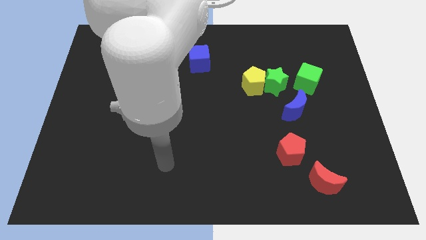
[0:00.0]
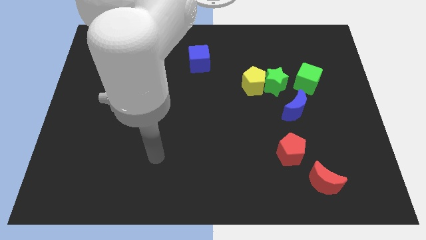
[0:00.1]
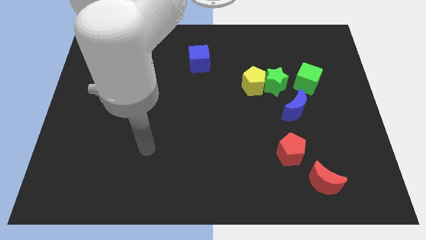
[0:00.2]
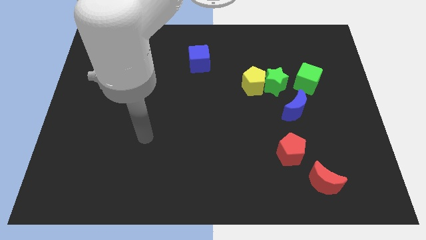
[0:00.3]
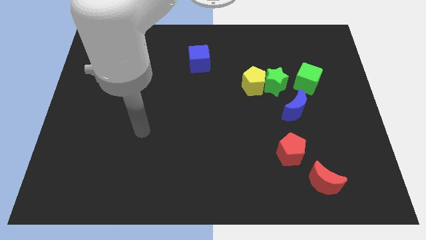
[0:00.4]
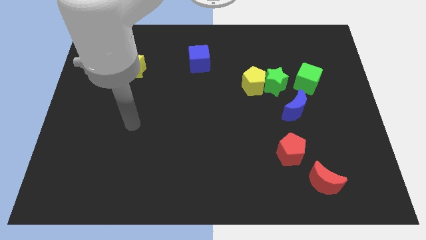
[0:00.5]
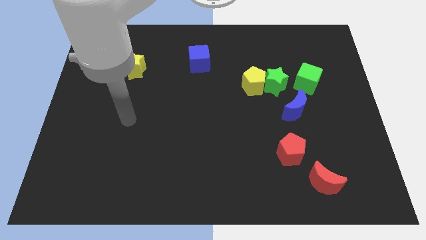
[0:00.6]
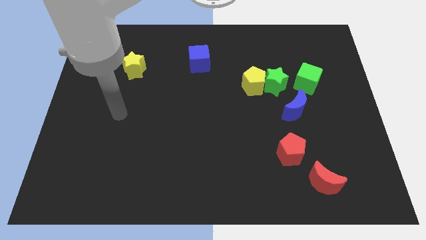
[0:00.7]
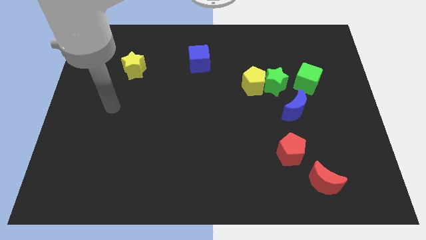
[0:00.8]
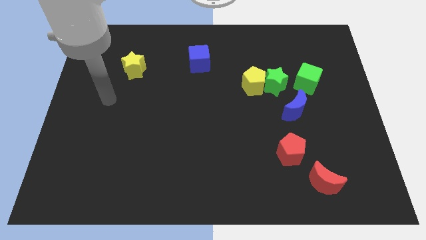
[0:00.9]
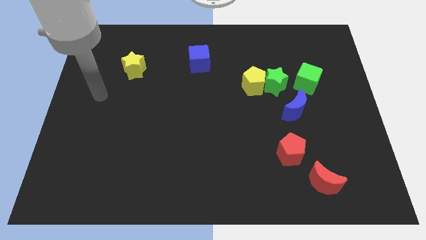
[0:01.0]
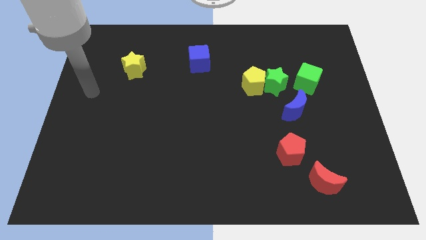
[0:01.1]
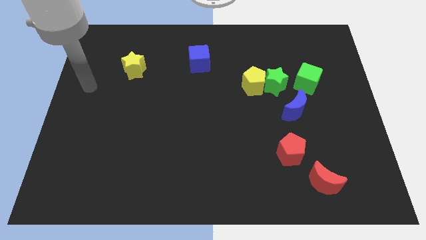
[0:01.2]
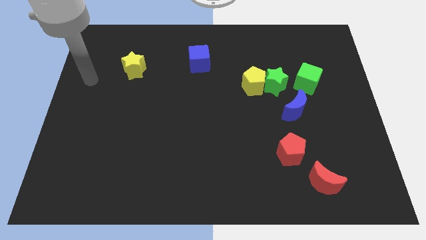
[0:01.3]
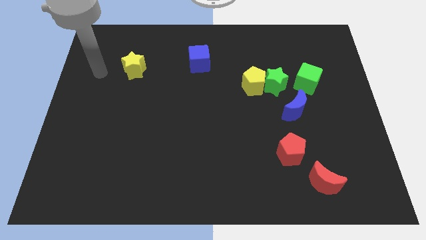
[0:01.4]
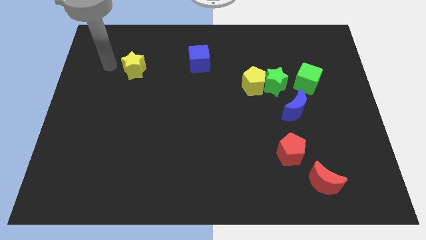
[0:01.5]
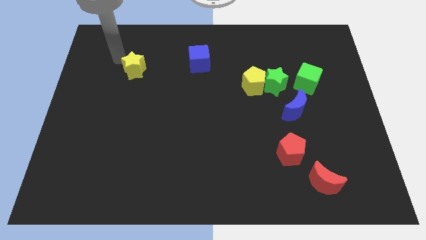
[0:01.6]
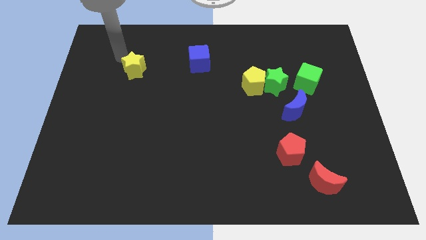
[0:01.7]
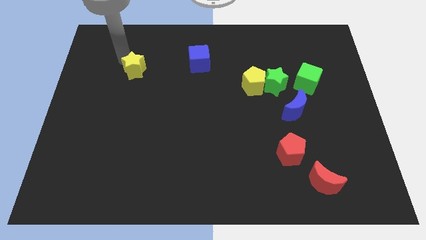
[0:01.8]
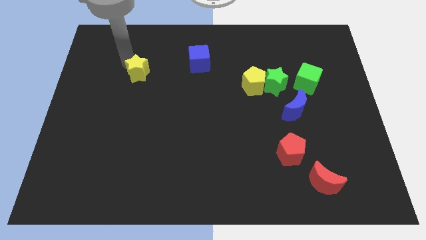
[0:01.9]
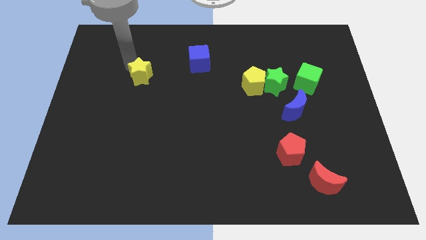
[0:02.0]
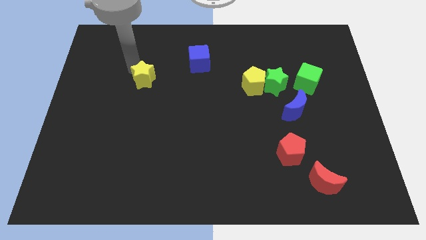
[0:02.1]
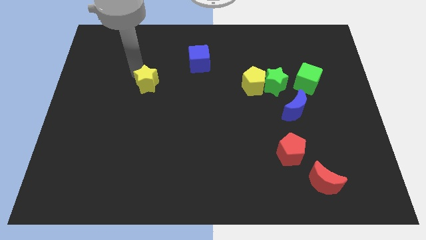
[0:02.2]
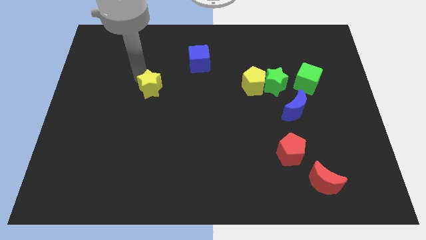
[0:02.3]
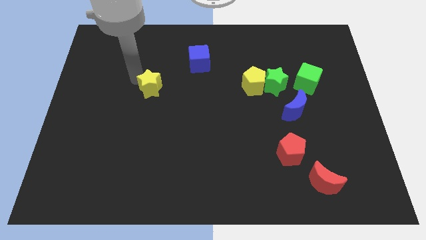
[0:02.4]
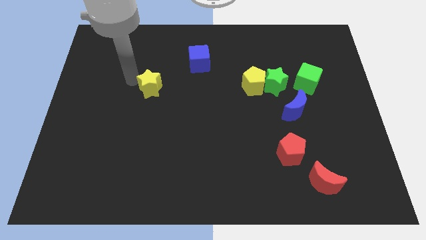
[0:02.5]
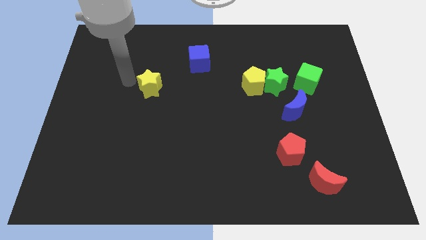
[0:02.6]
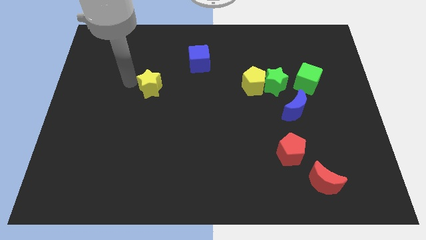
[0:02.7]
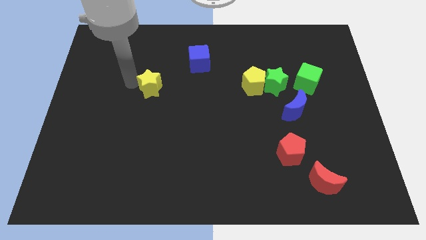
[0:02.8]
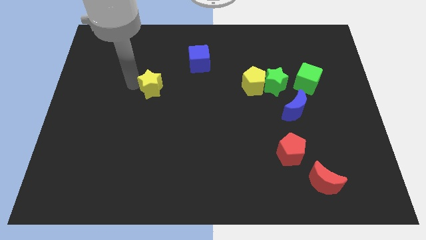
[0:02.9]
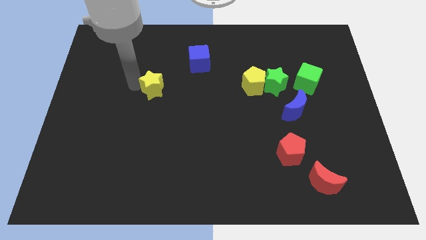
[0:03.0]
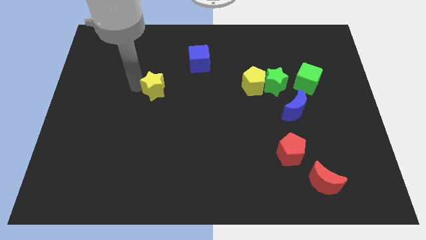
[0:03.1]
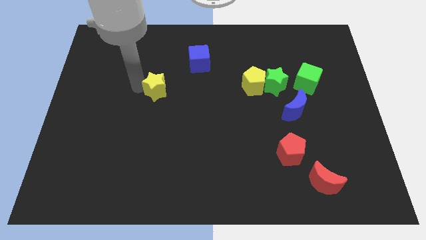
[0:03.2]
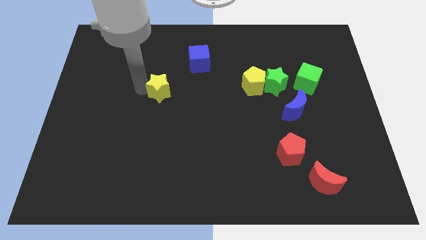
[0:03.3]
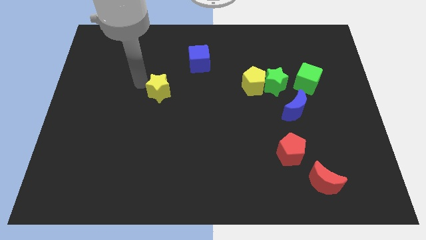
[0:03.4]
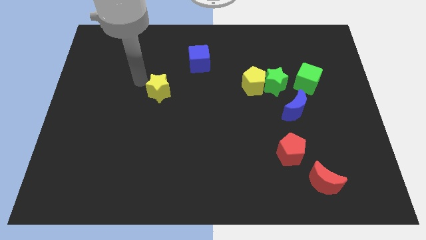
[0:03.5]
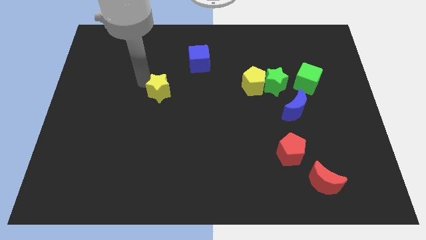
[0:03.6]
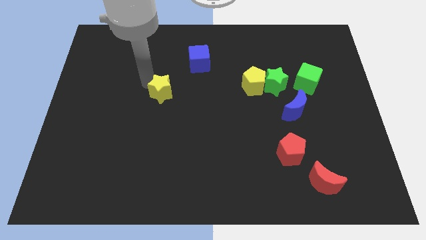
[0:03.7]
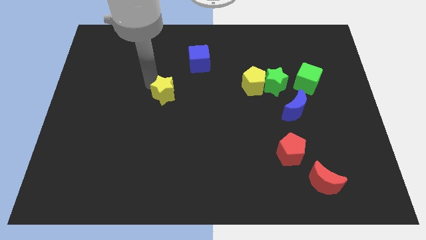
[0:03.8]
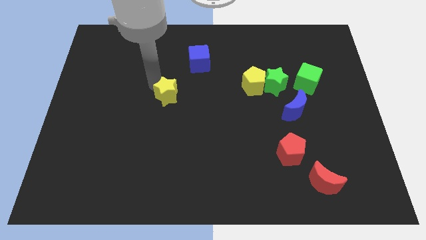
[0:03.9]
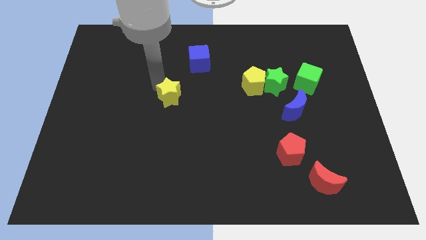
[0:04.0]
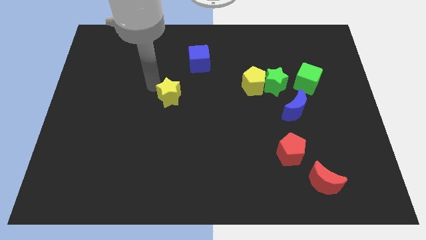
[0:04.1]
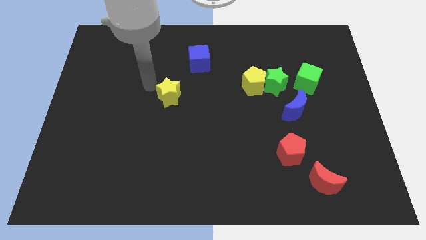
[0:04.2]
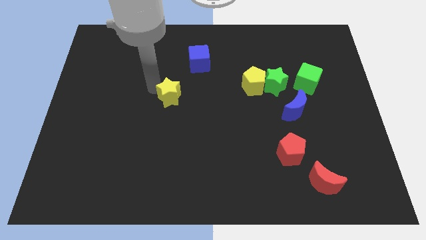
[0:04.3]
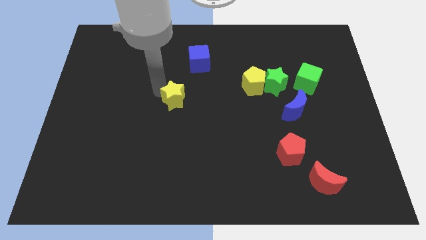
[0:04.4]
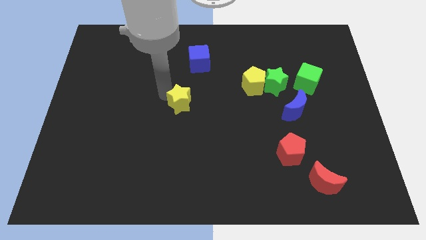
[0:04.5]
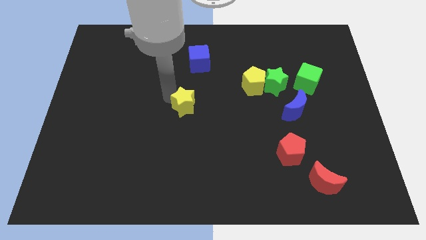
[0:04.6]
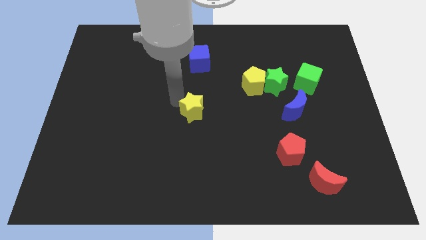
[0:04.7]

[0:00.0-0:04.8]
push the yellow star downwards and right diagonally

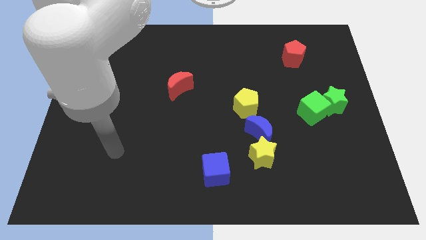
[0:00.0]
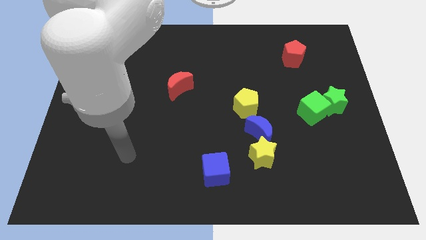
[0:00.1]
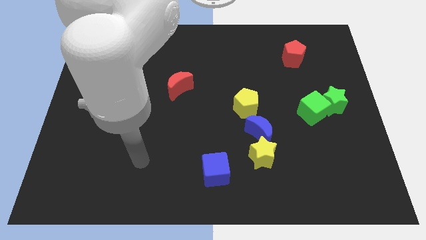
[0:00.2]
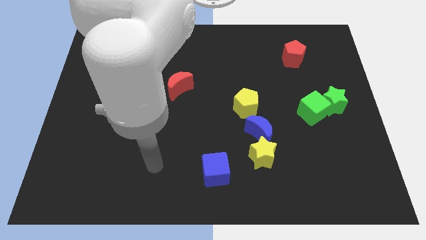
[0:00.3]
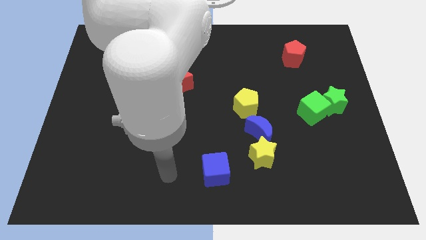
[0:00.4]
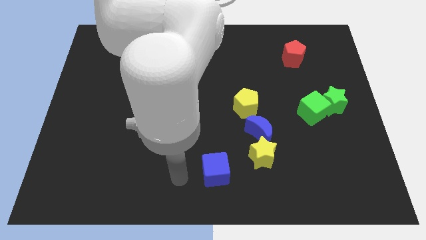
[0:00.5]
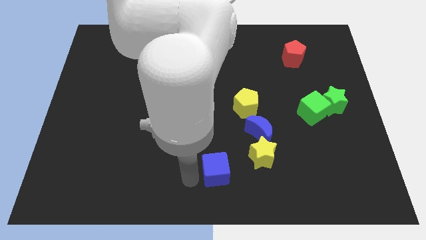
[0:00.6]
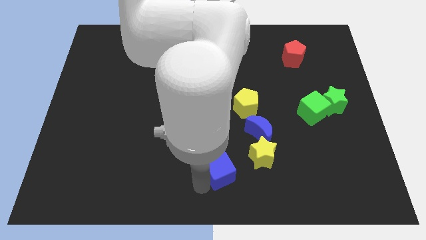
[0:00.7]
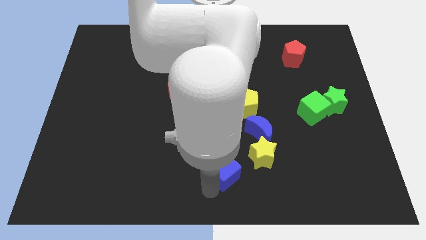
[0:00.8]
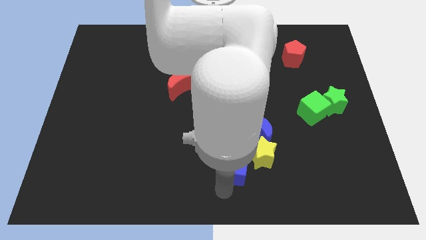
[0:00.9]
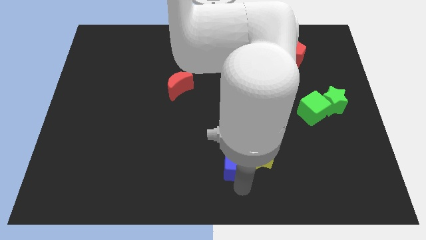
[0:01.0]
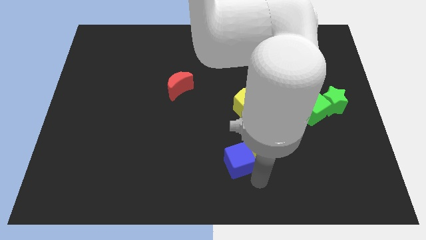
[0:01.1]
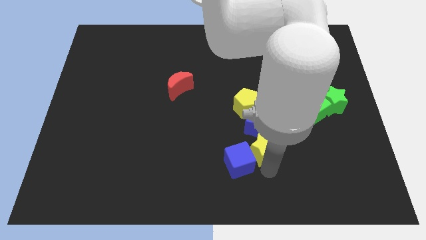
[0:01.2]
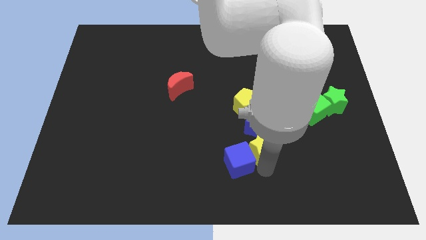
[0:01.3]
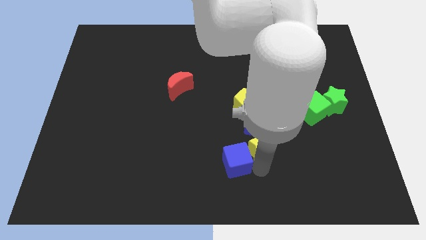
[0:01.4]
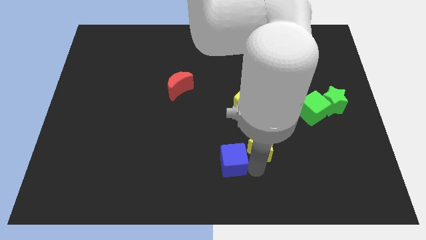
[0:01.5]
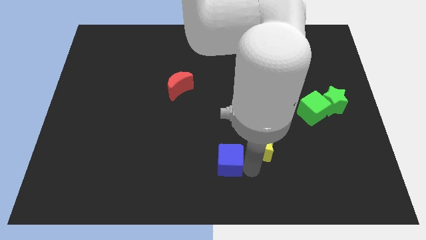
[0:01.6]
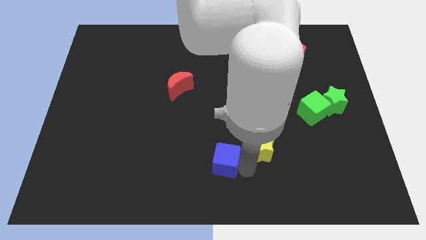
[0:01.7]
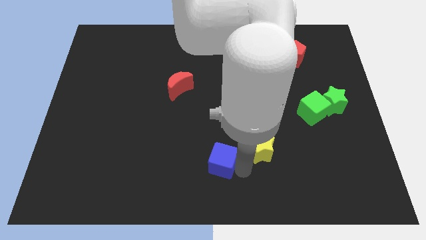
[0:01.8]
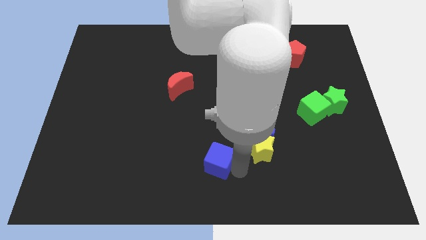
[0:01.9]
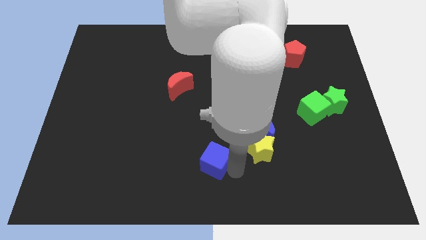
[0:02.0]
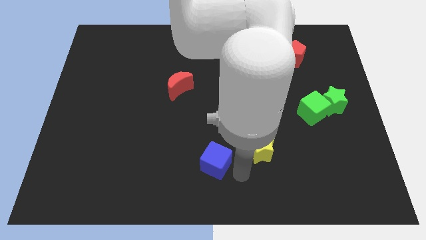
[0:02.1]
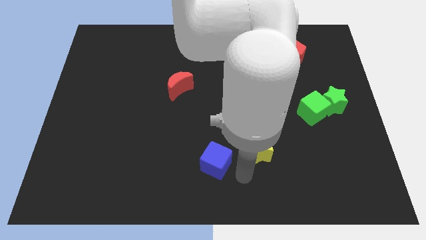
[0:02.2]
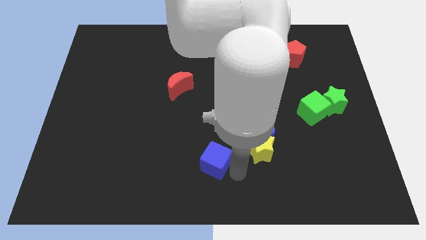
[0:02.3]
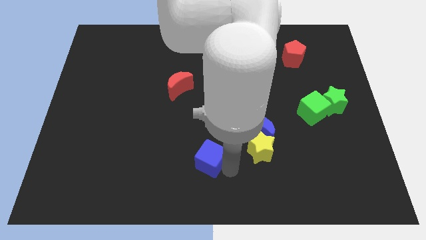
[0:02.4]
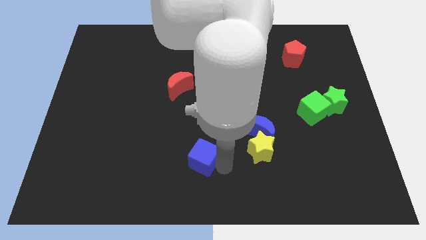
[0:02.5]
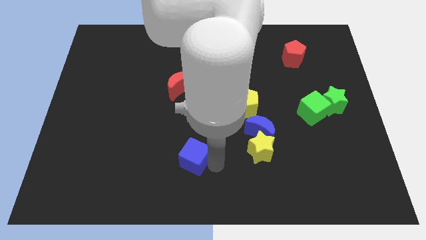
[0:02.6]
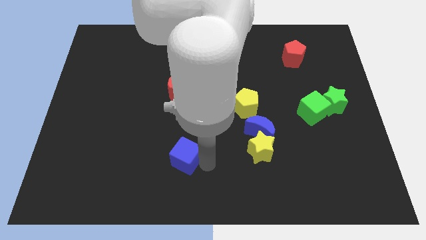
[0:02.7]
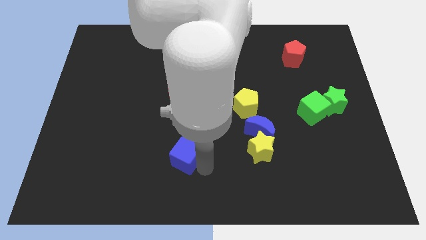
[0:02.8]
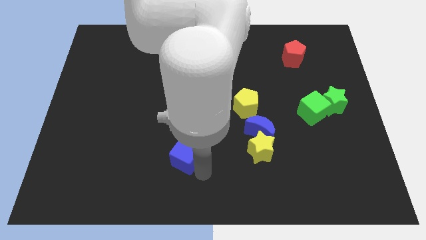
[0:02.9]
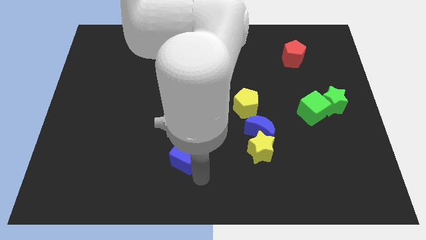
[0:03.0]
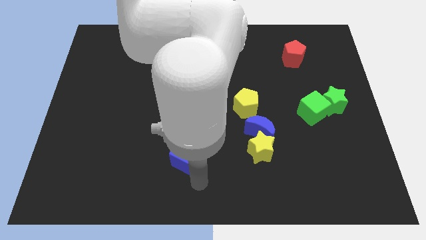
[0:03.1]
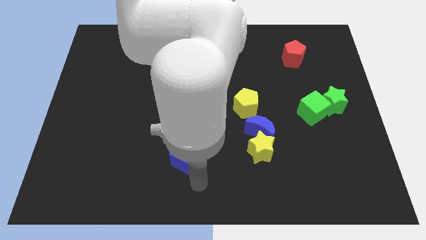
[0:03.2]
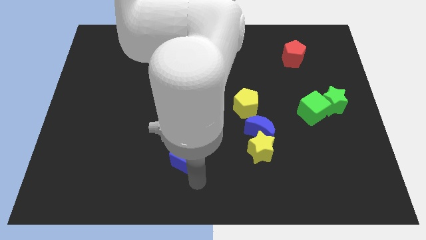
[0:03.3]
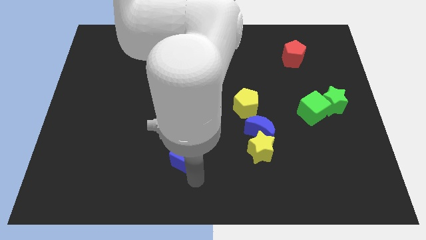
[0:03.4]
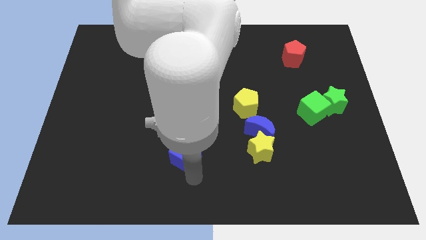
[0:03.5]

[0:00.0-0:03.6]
push the blue cube somewhat up and then left
